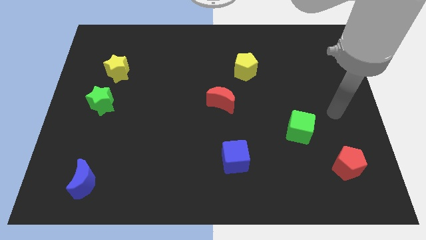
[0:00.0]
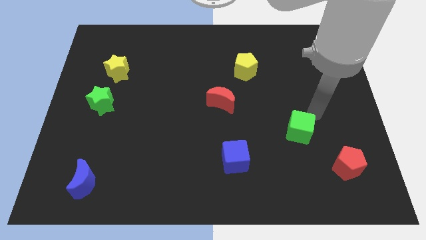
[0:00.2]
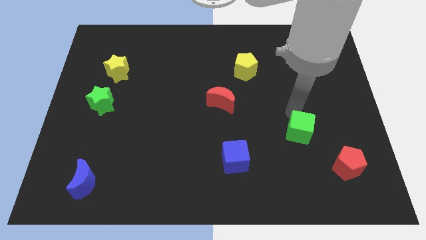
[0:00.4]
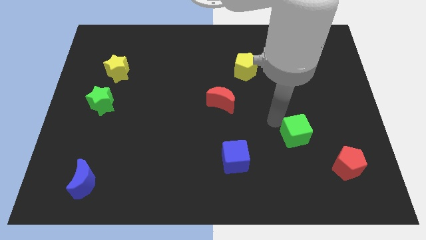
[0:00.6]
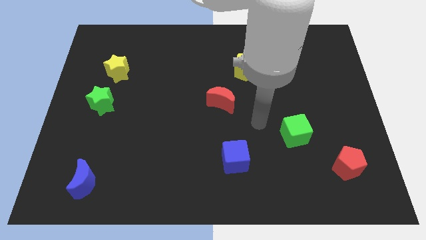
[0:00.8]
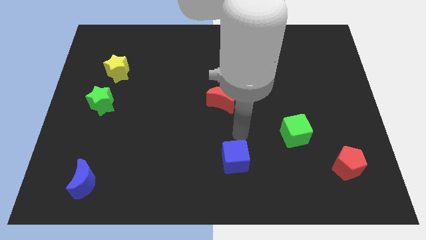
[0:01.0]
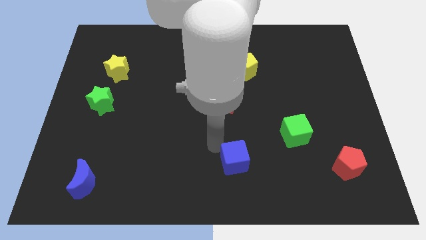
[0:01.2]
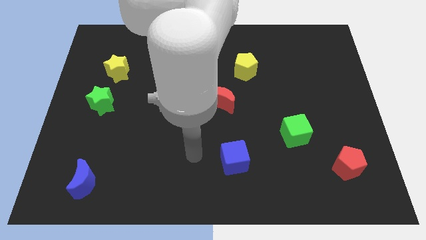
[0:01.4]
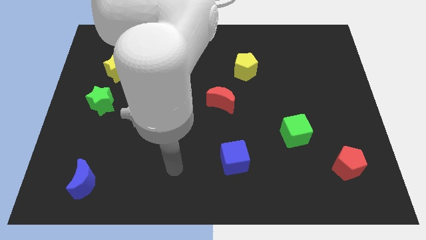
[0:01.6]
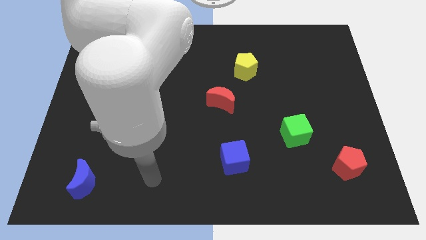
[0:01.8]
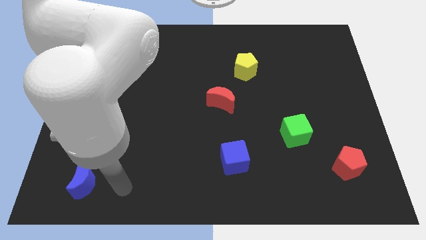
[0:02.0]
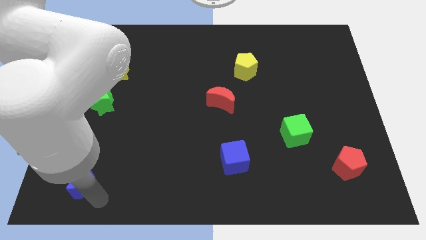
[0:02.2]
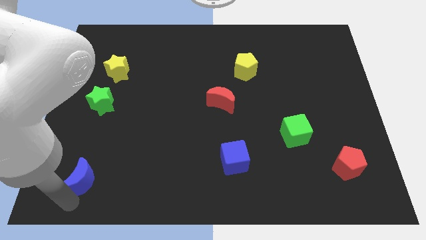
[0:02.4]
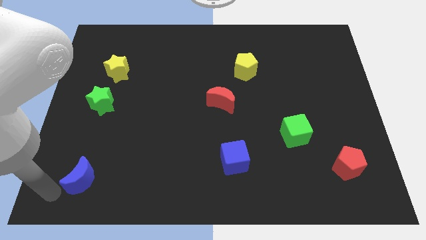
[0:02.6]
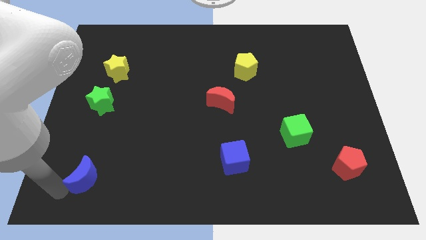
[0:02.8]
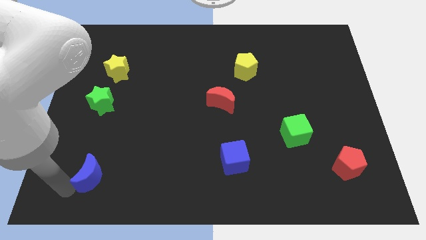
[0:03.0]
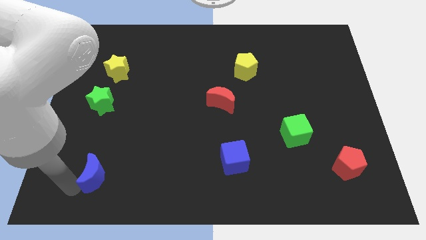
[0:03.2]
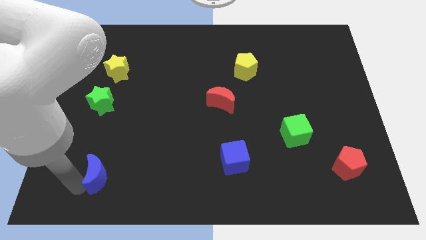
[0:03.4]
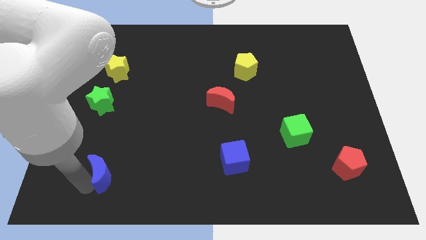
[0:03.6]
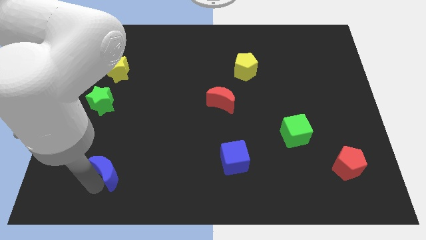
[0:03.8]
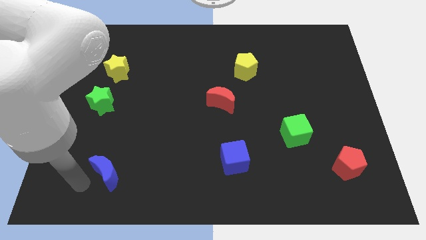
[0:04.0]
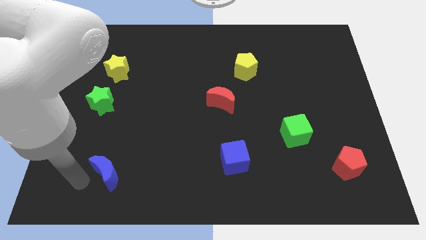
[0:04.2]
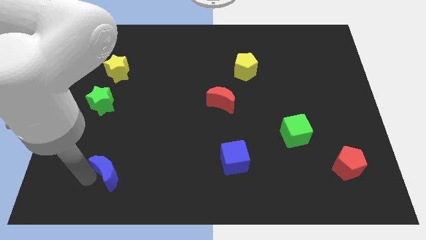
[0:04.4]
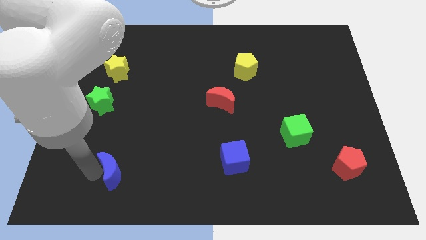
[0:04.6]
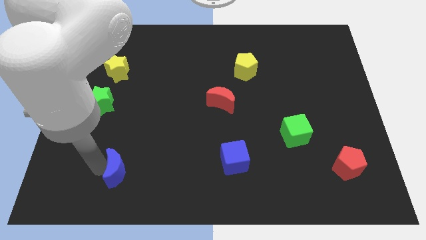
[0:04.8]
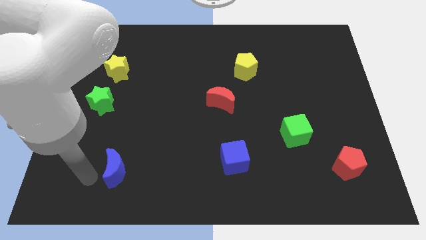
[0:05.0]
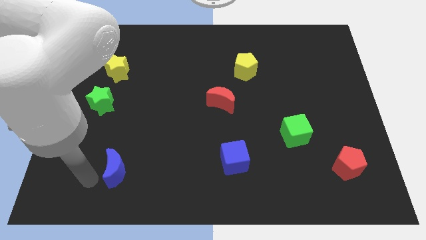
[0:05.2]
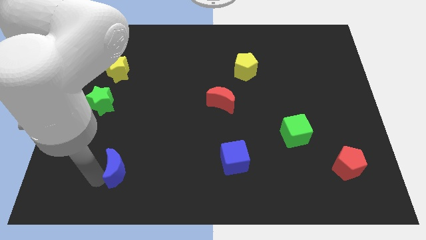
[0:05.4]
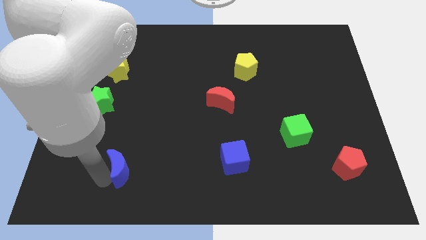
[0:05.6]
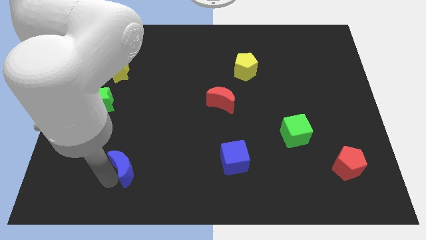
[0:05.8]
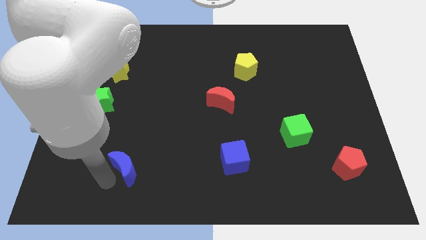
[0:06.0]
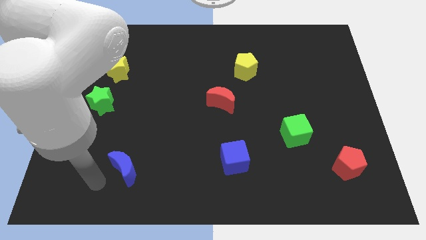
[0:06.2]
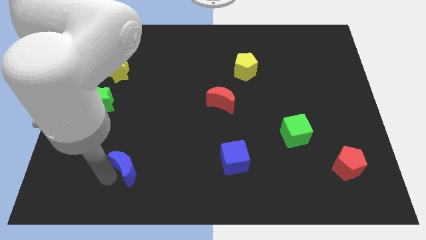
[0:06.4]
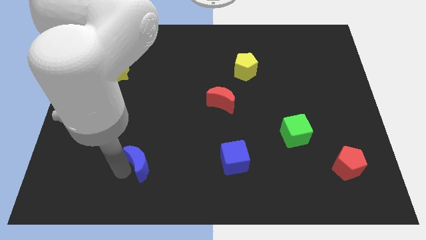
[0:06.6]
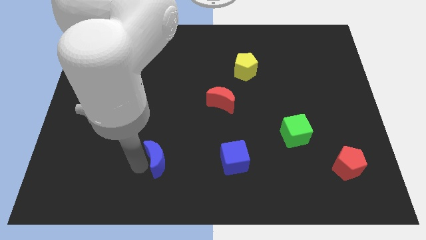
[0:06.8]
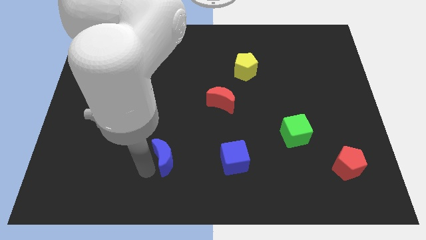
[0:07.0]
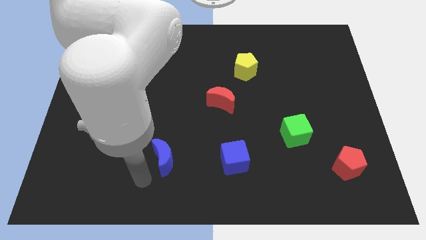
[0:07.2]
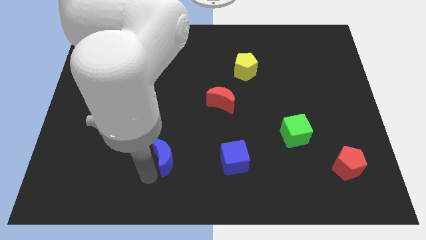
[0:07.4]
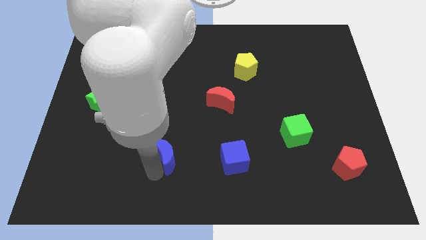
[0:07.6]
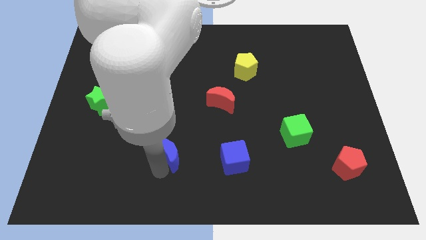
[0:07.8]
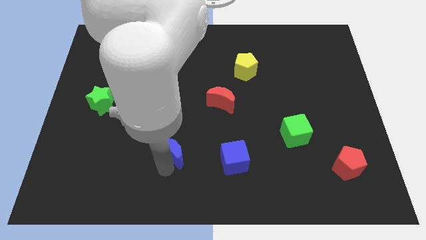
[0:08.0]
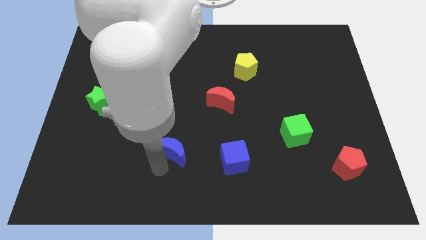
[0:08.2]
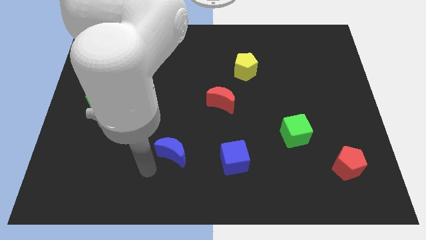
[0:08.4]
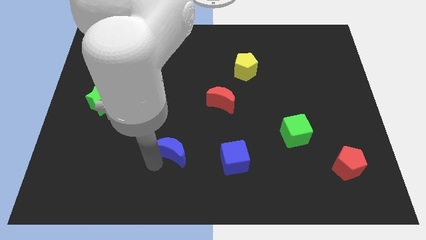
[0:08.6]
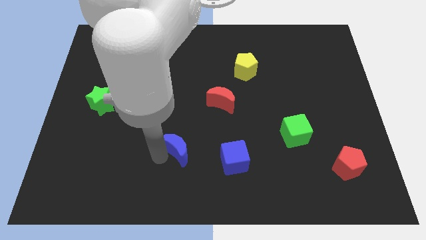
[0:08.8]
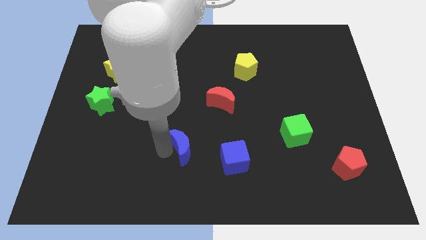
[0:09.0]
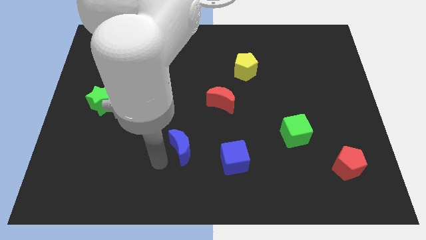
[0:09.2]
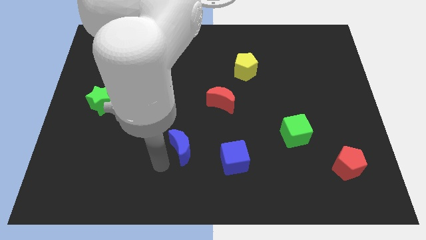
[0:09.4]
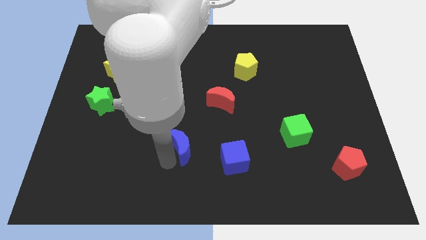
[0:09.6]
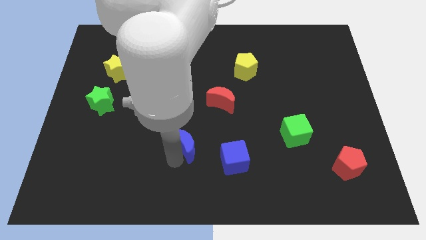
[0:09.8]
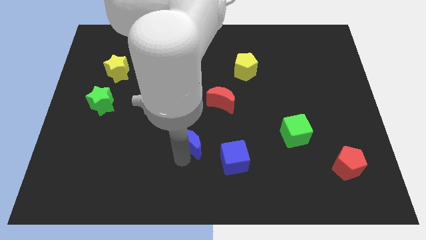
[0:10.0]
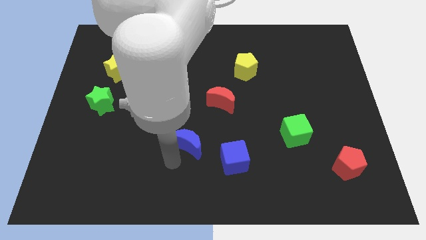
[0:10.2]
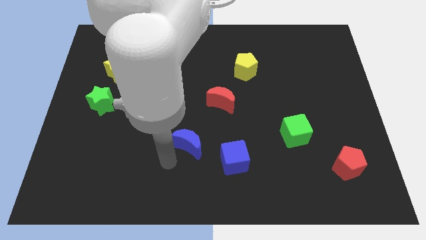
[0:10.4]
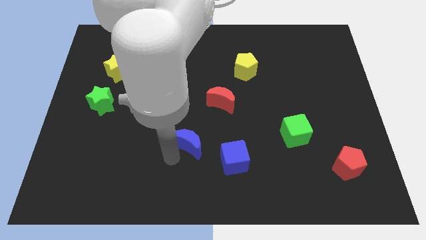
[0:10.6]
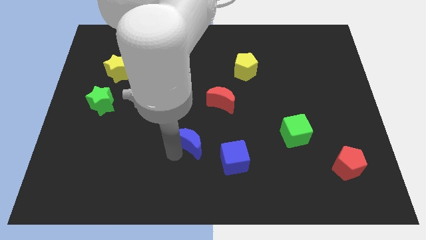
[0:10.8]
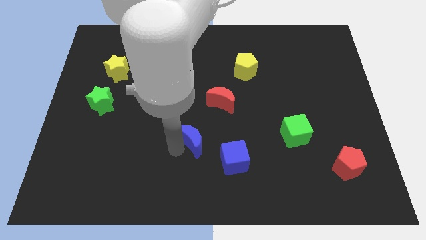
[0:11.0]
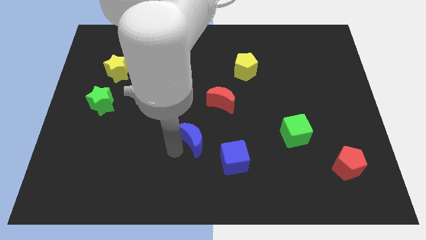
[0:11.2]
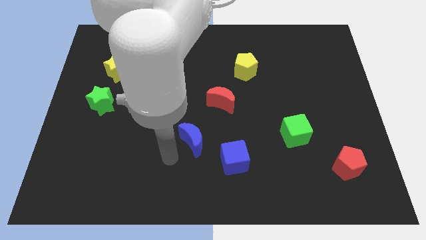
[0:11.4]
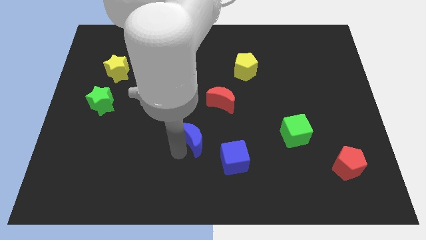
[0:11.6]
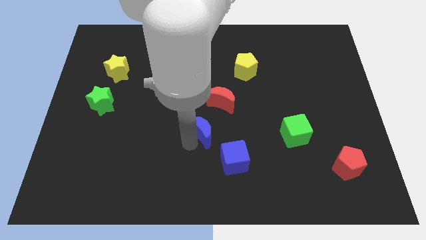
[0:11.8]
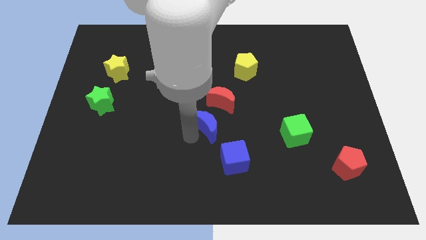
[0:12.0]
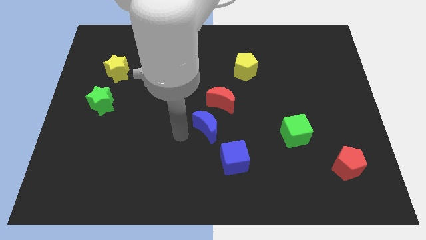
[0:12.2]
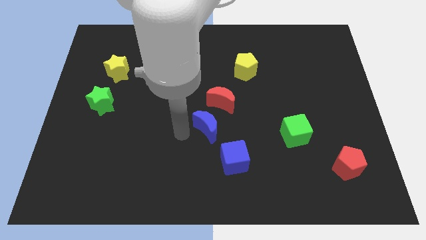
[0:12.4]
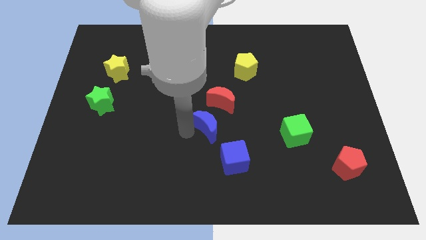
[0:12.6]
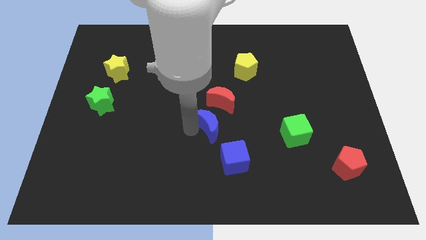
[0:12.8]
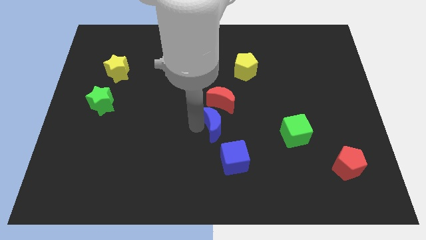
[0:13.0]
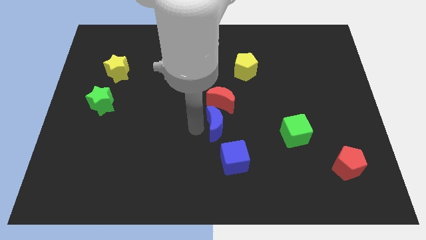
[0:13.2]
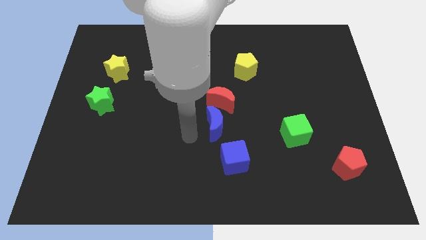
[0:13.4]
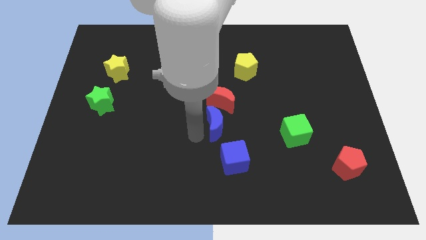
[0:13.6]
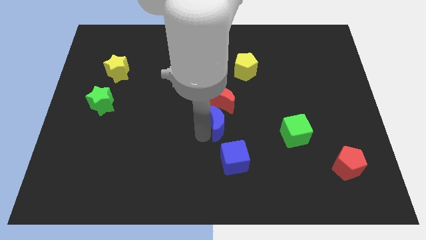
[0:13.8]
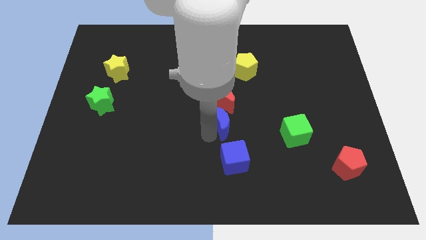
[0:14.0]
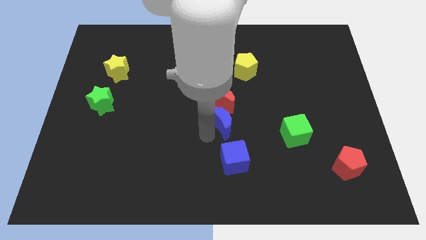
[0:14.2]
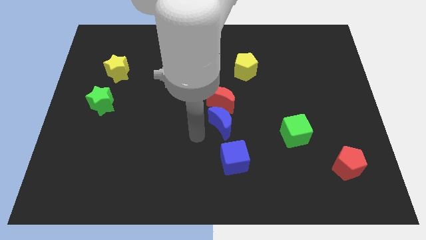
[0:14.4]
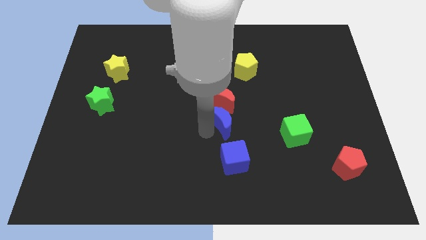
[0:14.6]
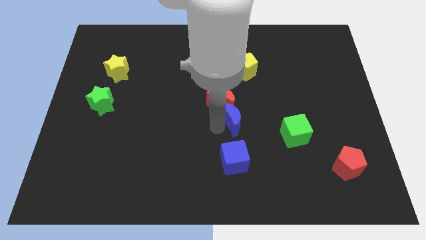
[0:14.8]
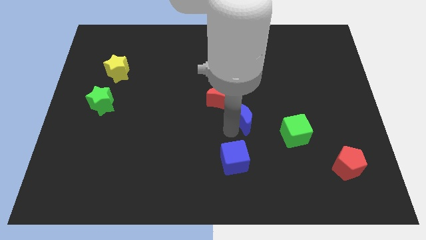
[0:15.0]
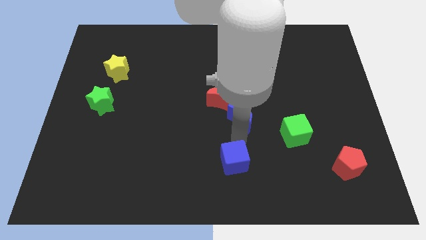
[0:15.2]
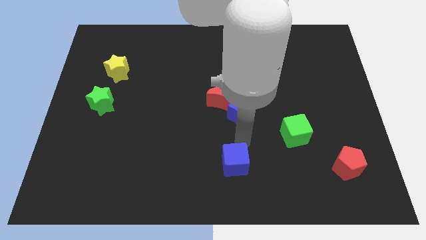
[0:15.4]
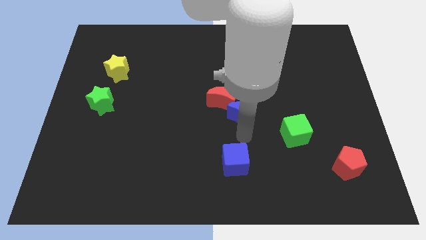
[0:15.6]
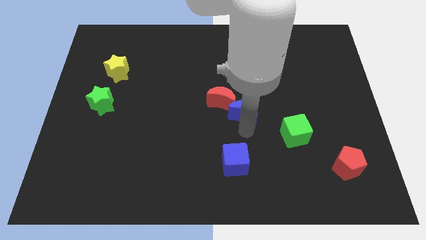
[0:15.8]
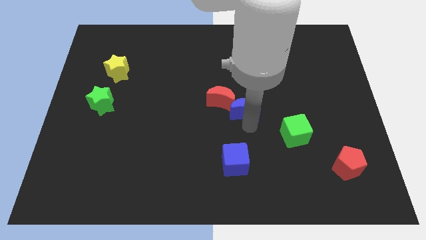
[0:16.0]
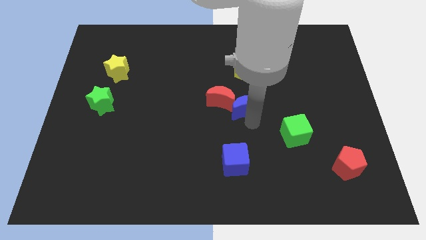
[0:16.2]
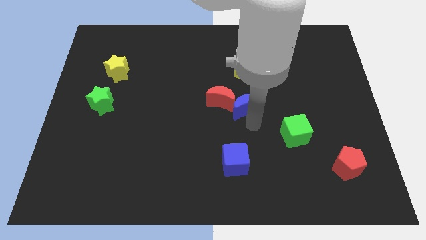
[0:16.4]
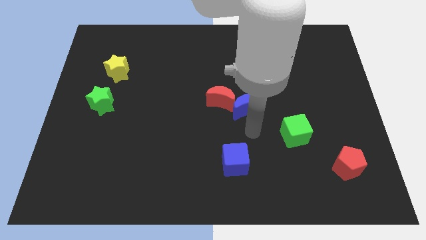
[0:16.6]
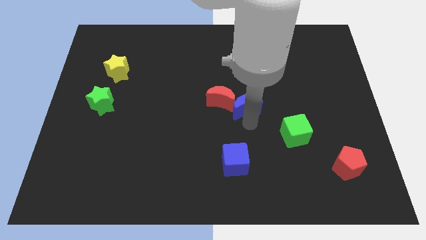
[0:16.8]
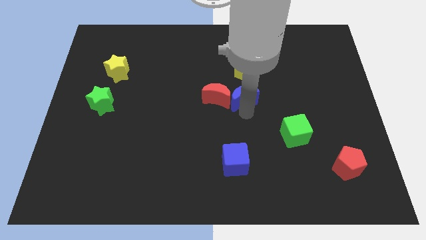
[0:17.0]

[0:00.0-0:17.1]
slide the blue moon to the top right side of the red moon
